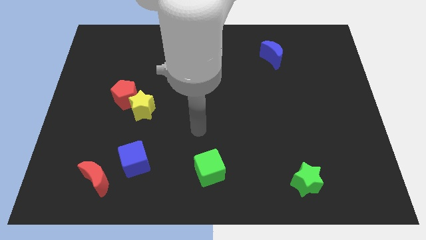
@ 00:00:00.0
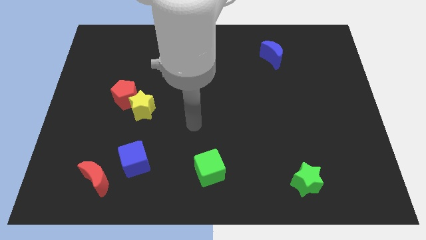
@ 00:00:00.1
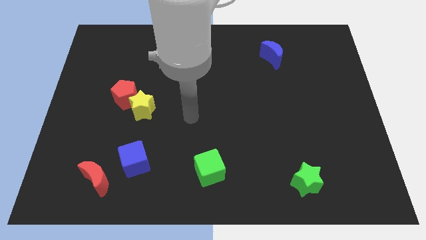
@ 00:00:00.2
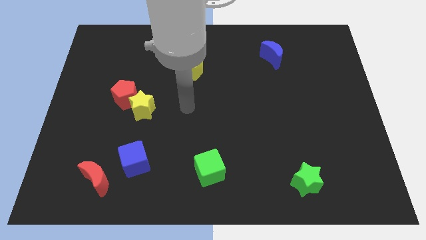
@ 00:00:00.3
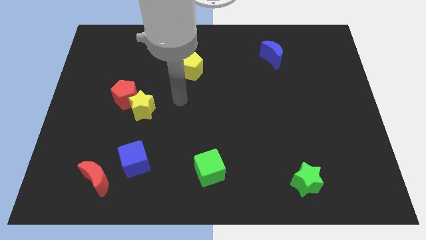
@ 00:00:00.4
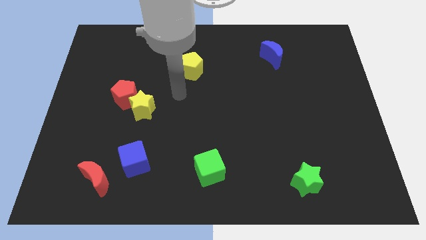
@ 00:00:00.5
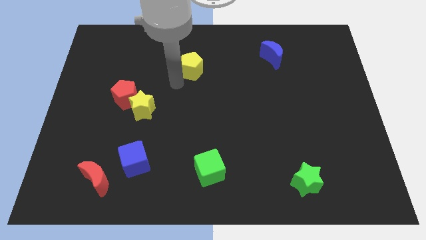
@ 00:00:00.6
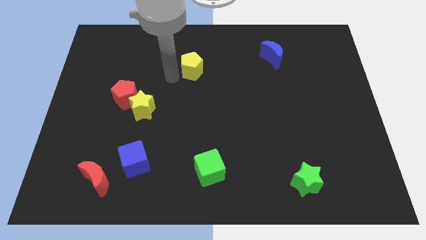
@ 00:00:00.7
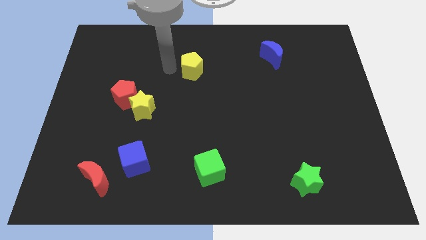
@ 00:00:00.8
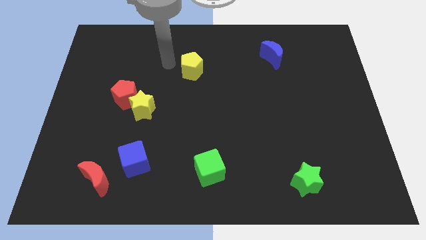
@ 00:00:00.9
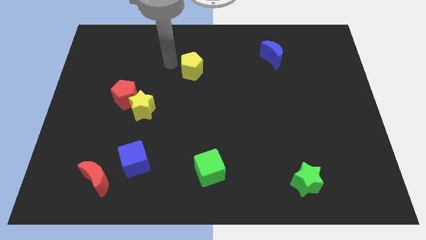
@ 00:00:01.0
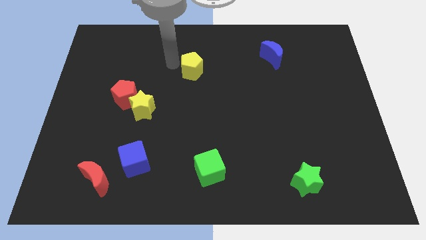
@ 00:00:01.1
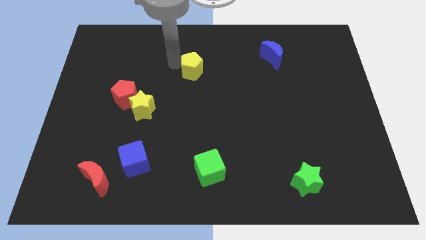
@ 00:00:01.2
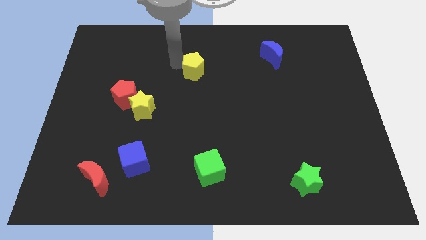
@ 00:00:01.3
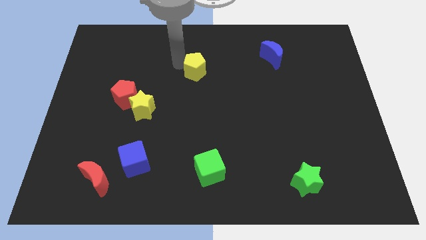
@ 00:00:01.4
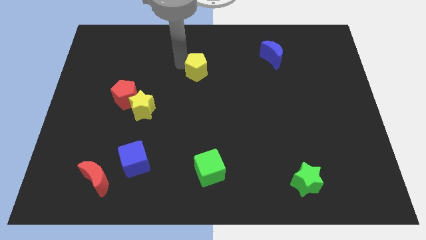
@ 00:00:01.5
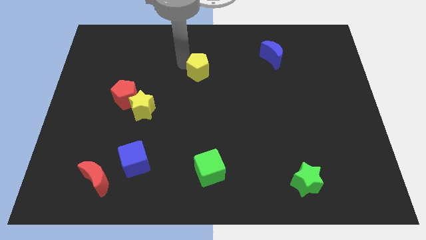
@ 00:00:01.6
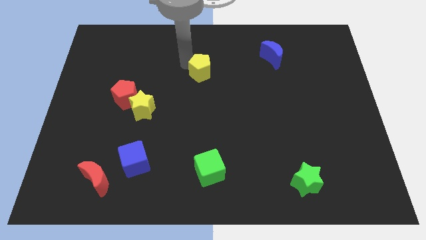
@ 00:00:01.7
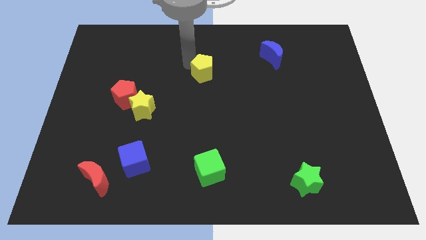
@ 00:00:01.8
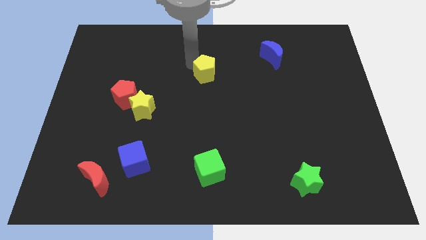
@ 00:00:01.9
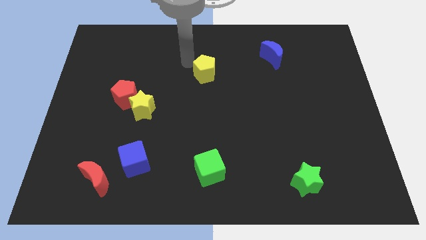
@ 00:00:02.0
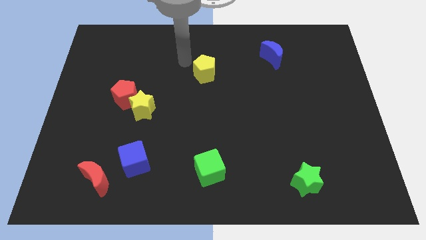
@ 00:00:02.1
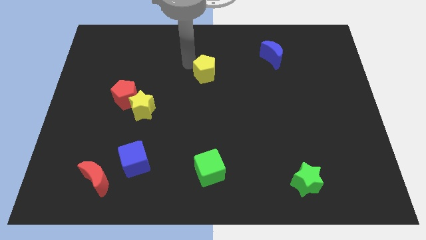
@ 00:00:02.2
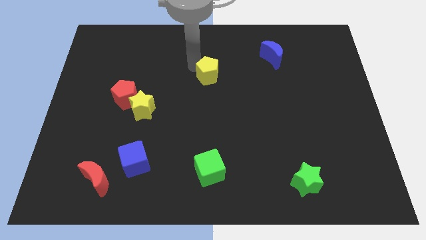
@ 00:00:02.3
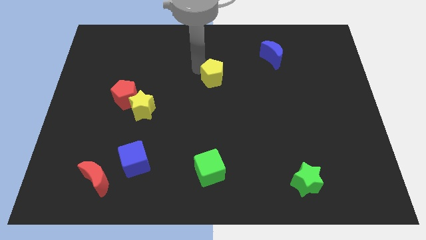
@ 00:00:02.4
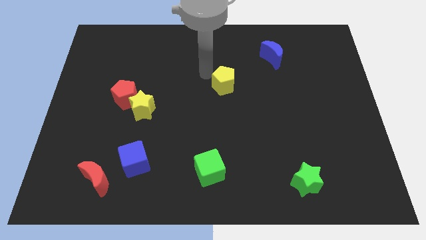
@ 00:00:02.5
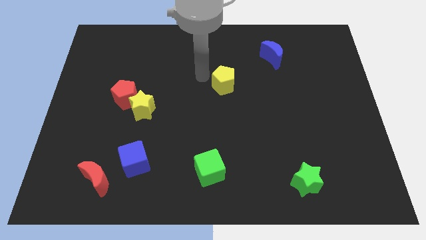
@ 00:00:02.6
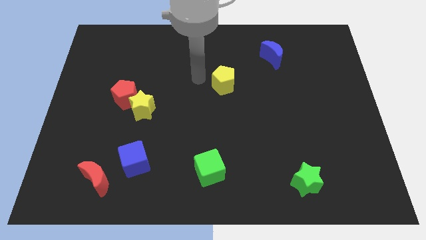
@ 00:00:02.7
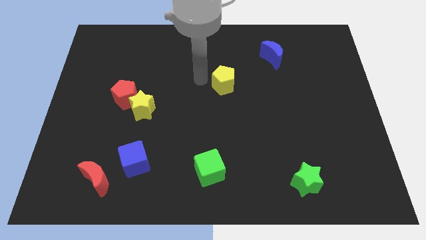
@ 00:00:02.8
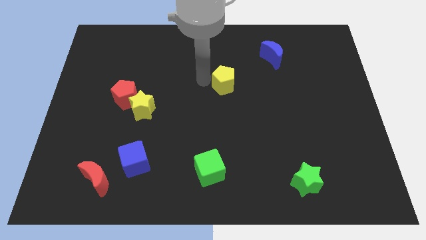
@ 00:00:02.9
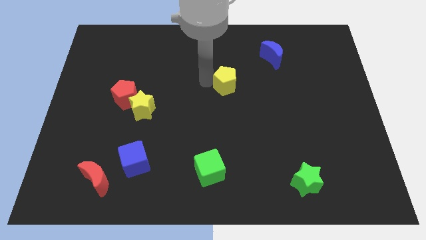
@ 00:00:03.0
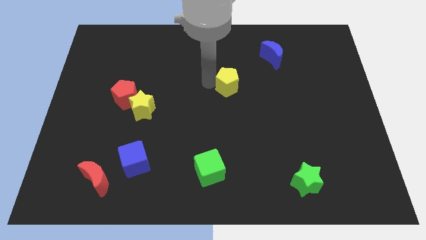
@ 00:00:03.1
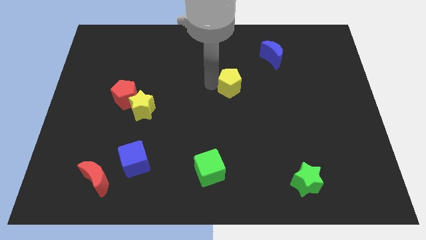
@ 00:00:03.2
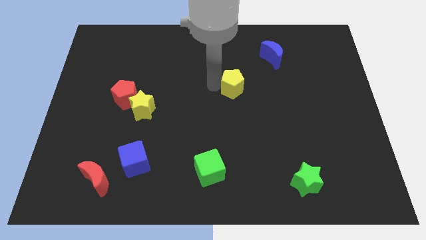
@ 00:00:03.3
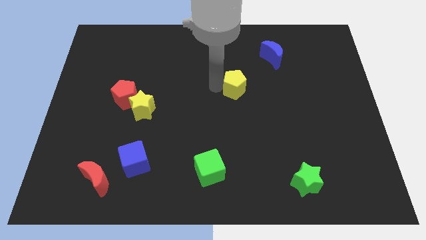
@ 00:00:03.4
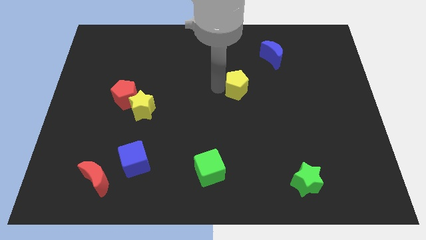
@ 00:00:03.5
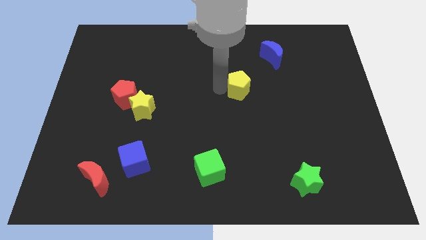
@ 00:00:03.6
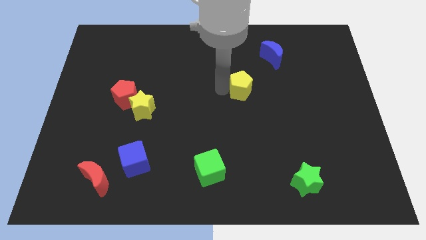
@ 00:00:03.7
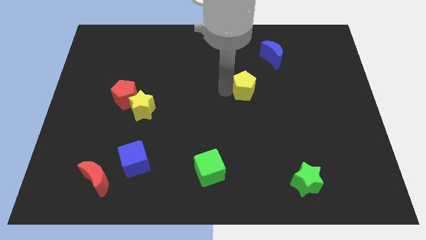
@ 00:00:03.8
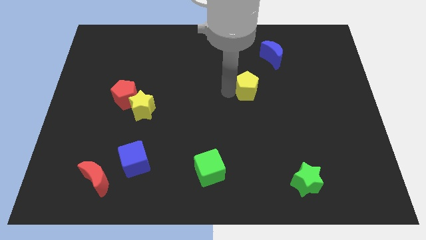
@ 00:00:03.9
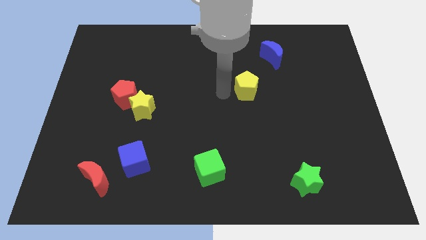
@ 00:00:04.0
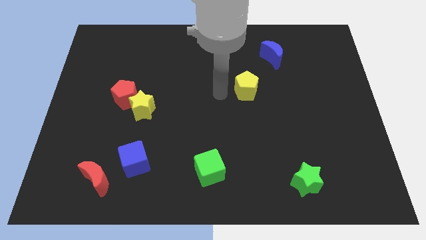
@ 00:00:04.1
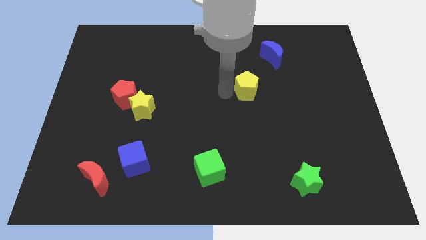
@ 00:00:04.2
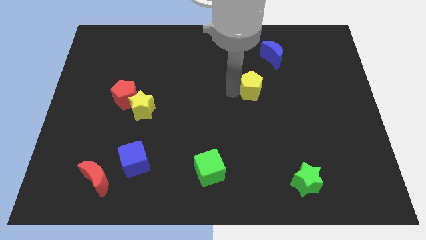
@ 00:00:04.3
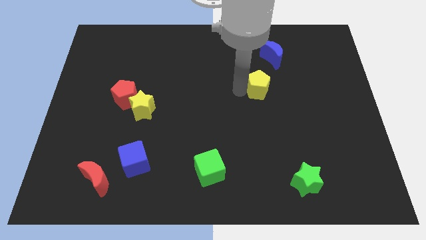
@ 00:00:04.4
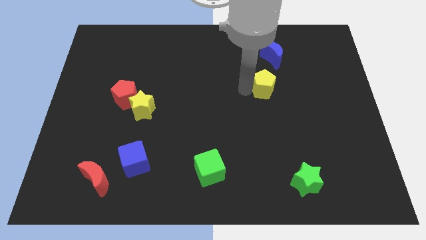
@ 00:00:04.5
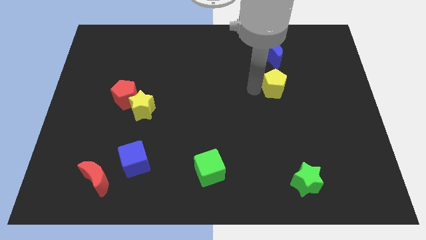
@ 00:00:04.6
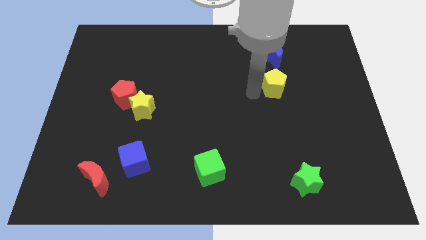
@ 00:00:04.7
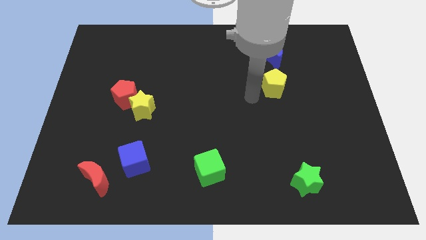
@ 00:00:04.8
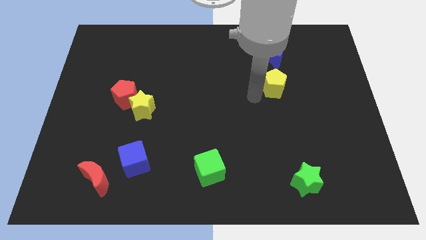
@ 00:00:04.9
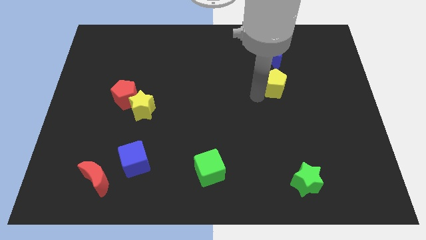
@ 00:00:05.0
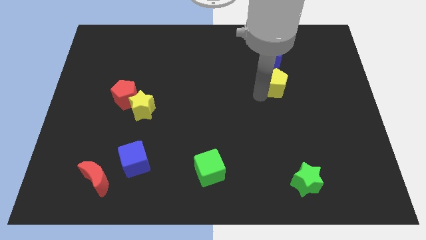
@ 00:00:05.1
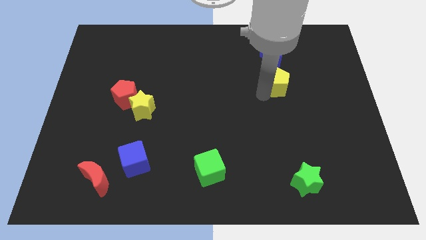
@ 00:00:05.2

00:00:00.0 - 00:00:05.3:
slide the yellow pentagon right

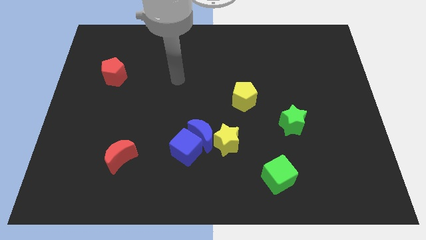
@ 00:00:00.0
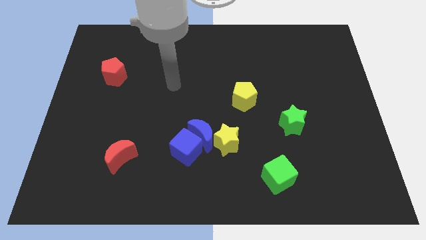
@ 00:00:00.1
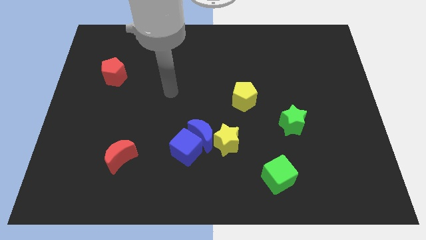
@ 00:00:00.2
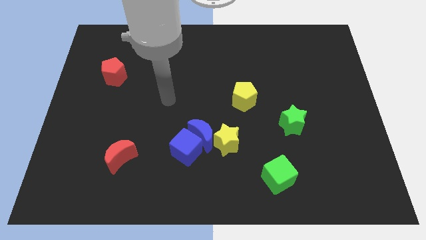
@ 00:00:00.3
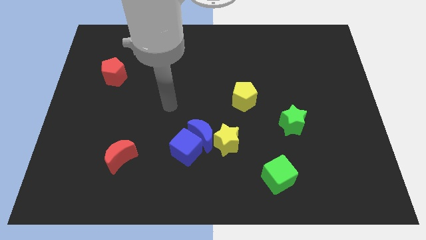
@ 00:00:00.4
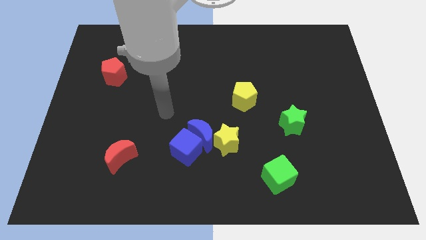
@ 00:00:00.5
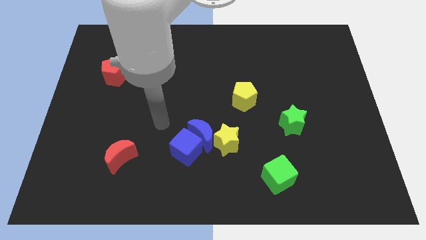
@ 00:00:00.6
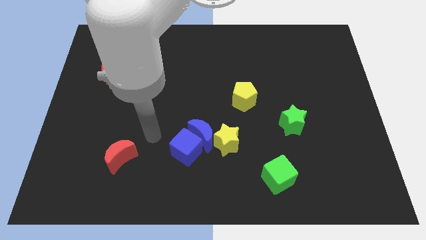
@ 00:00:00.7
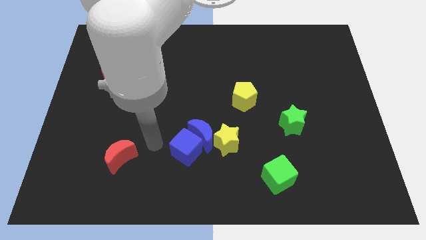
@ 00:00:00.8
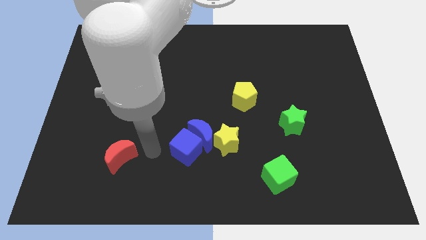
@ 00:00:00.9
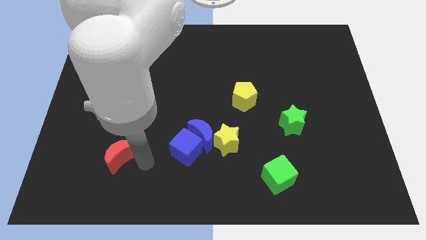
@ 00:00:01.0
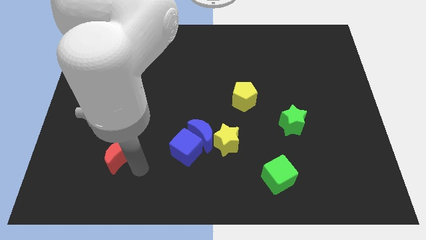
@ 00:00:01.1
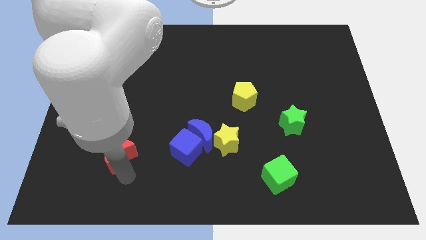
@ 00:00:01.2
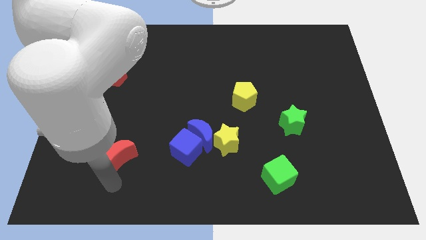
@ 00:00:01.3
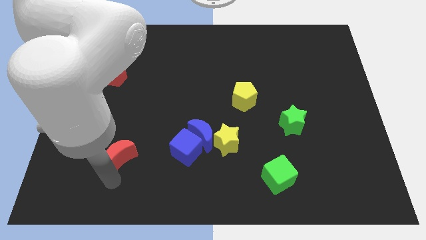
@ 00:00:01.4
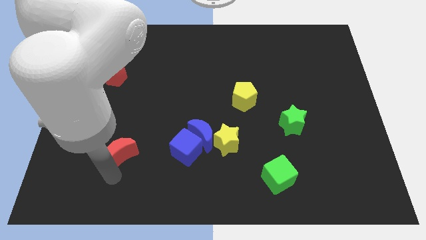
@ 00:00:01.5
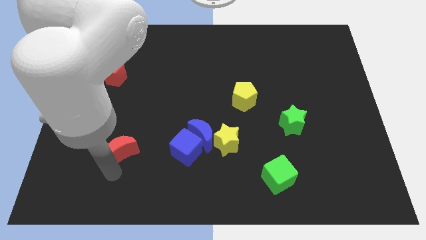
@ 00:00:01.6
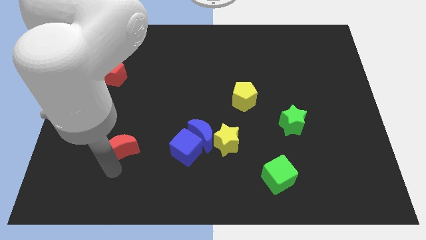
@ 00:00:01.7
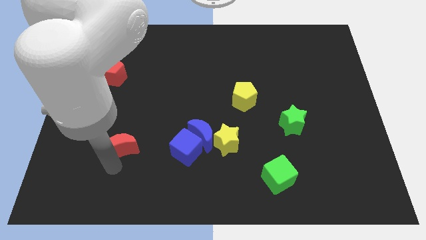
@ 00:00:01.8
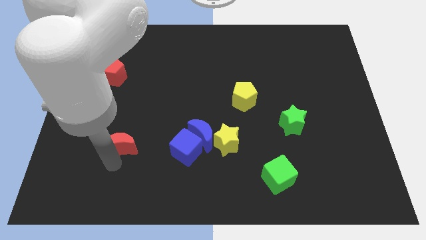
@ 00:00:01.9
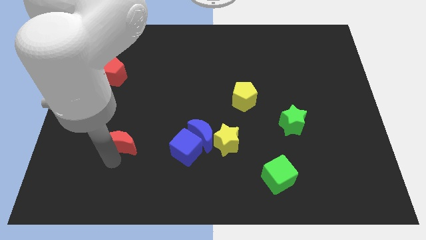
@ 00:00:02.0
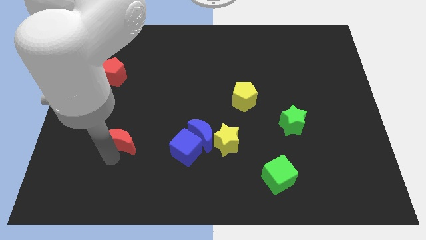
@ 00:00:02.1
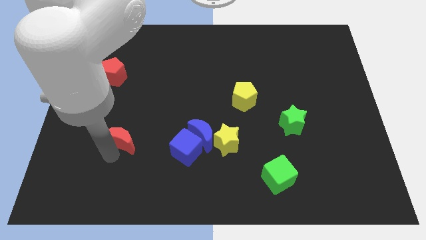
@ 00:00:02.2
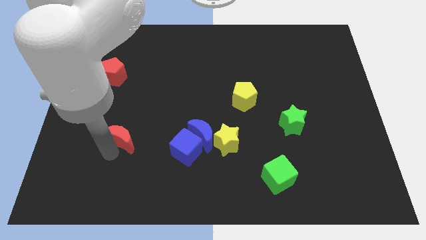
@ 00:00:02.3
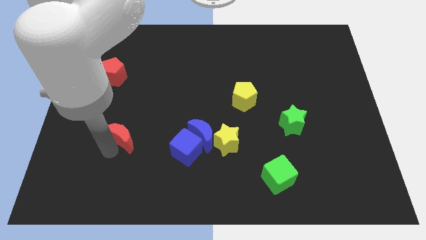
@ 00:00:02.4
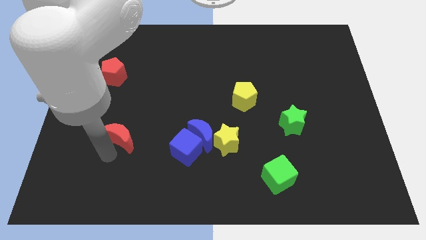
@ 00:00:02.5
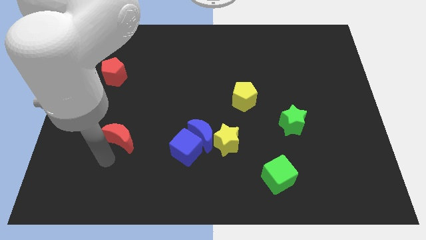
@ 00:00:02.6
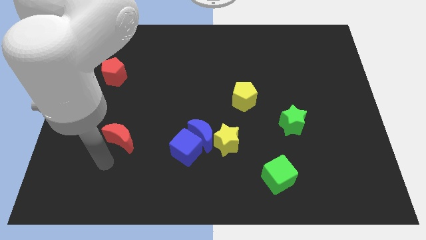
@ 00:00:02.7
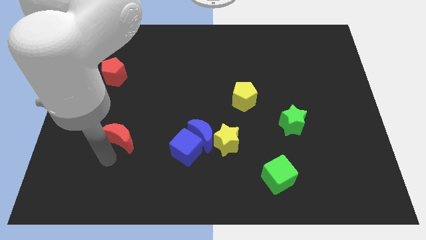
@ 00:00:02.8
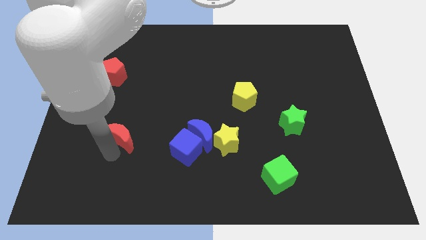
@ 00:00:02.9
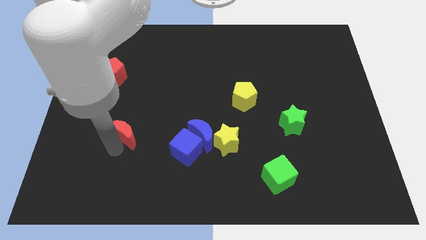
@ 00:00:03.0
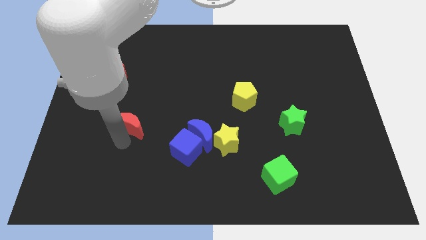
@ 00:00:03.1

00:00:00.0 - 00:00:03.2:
slide the red moon up somewhat
